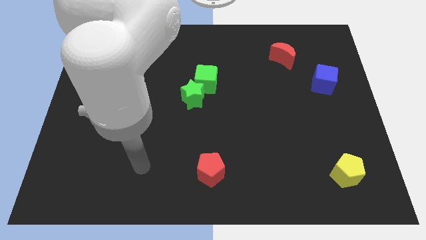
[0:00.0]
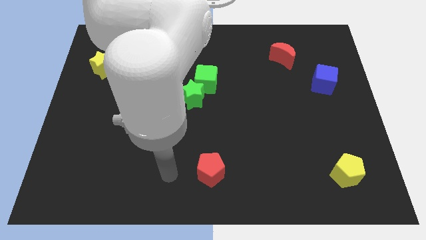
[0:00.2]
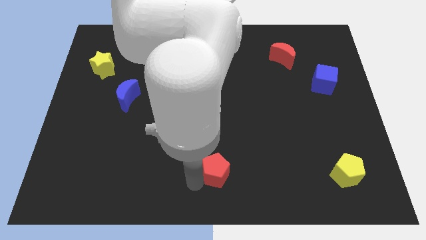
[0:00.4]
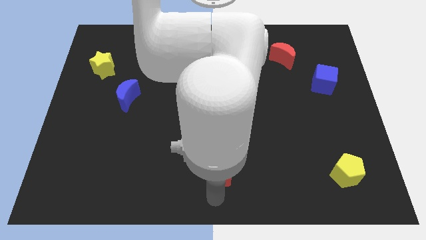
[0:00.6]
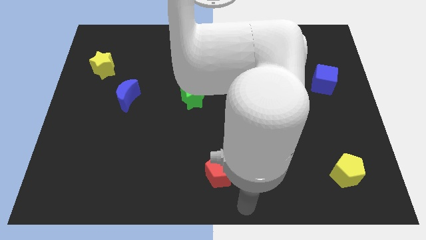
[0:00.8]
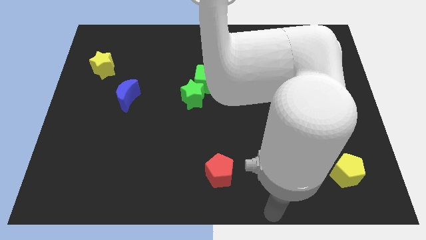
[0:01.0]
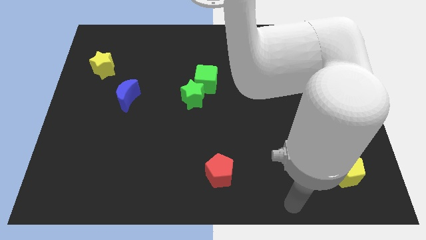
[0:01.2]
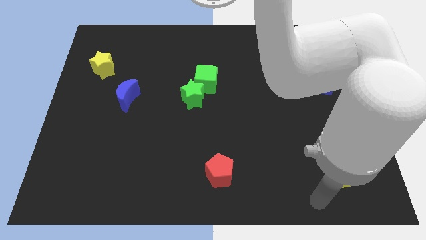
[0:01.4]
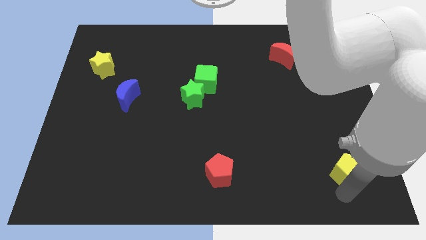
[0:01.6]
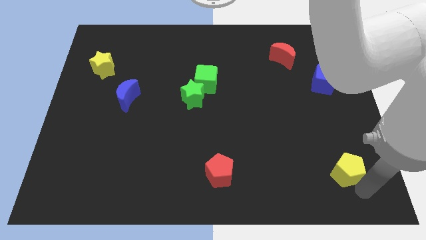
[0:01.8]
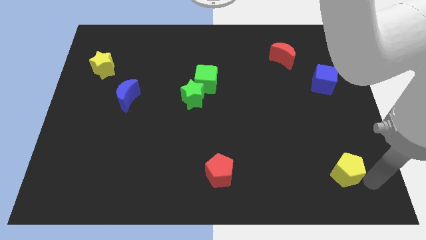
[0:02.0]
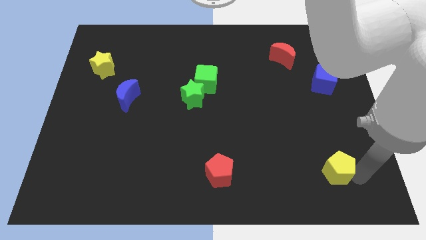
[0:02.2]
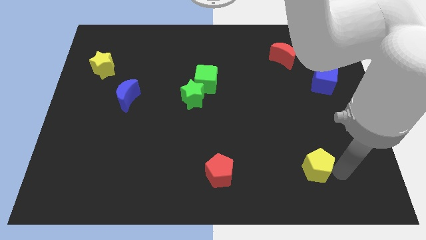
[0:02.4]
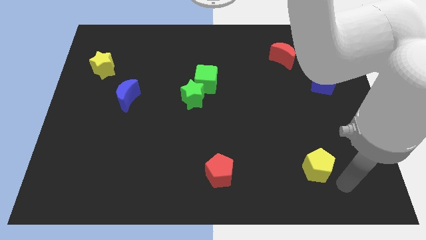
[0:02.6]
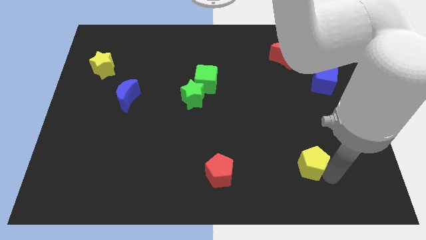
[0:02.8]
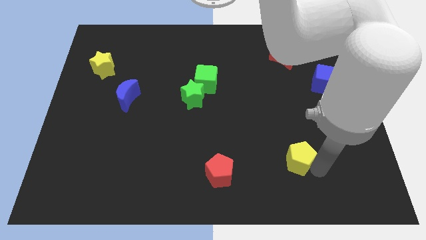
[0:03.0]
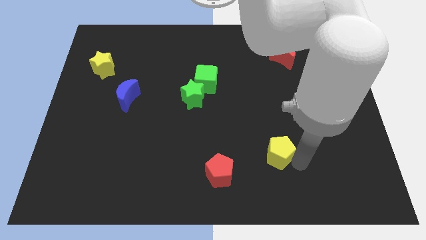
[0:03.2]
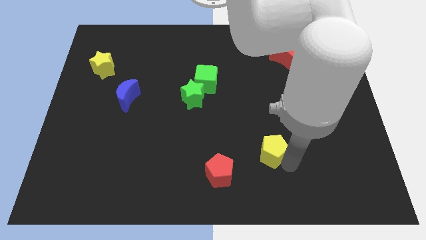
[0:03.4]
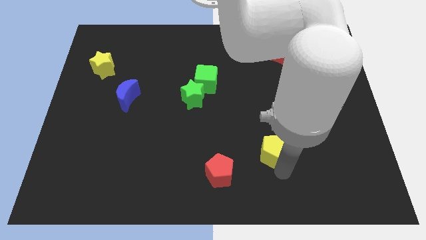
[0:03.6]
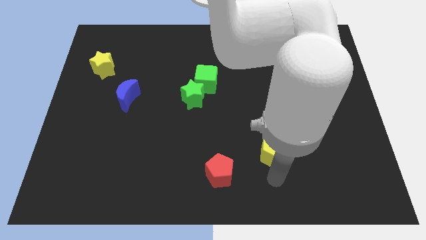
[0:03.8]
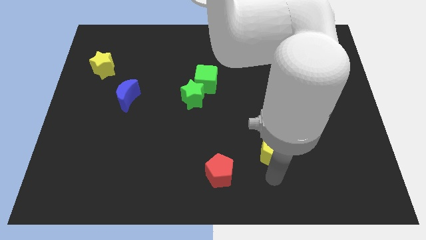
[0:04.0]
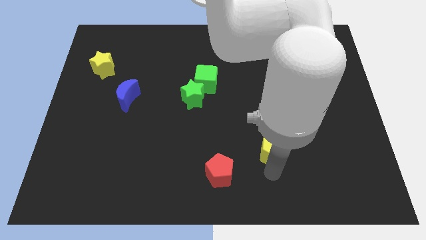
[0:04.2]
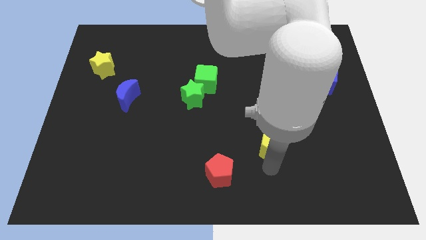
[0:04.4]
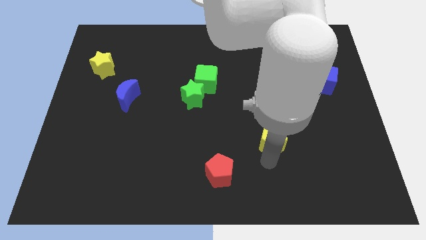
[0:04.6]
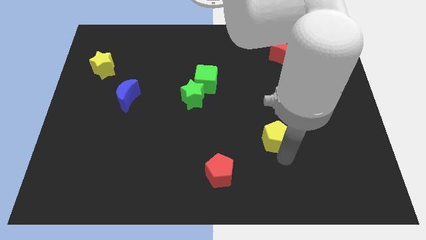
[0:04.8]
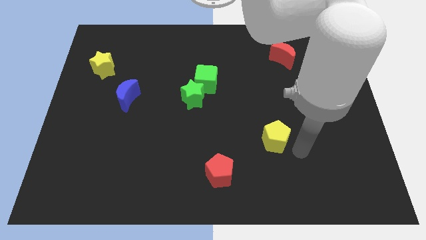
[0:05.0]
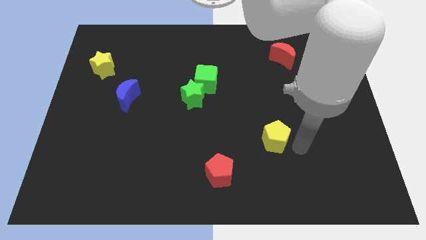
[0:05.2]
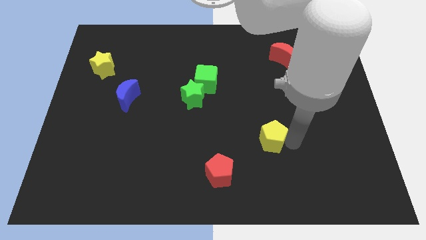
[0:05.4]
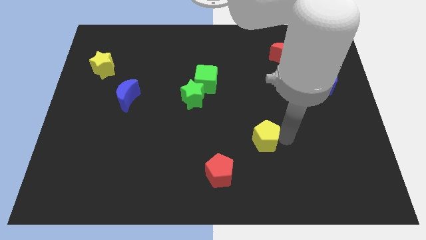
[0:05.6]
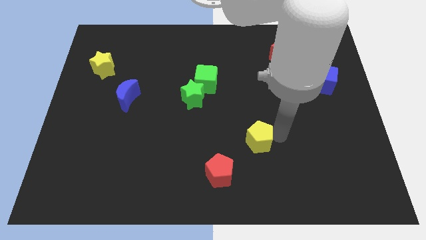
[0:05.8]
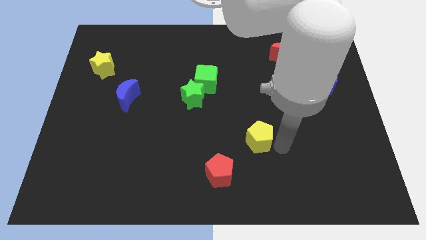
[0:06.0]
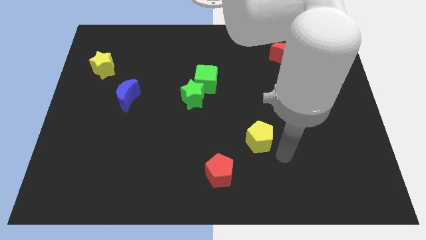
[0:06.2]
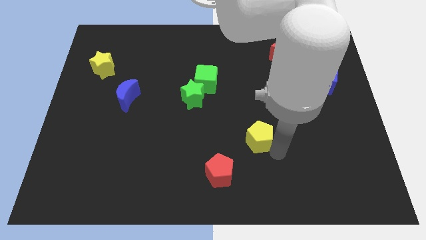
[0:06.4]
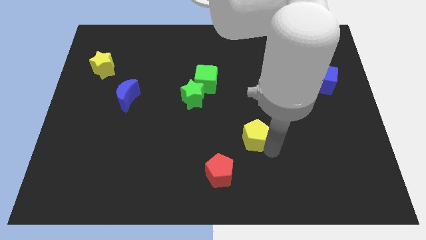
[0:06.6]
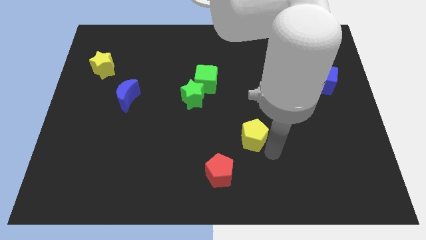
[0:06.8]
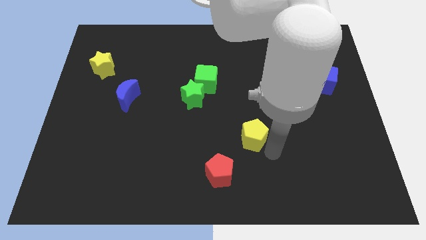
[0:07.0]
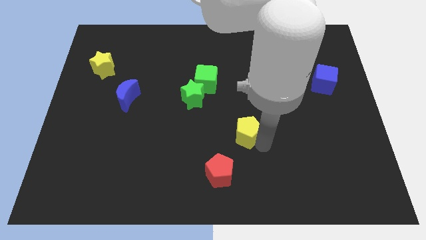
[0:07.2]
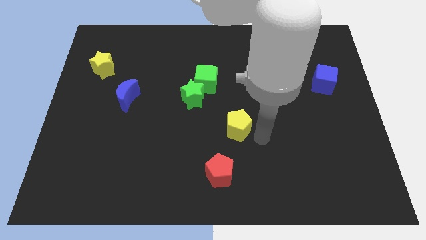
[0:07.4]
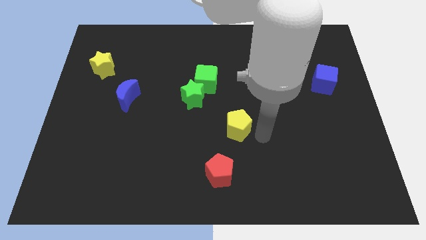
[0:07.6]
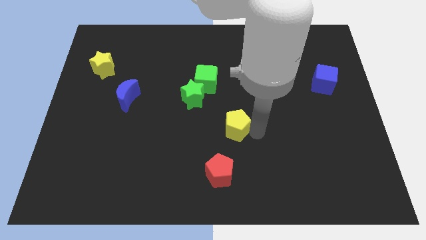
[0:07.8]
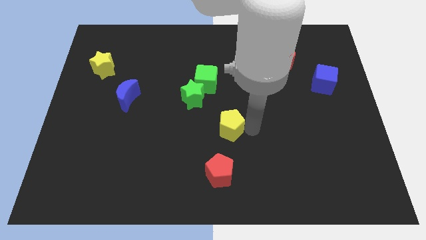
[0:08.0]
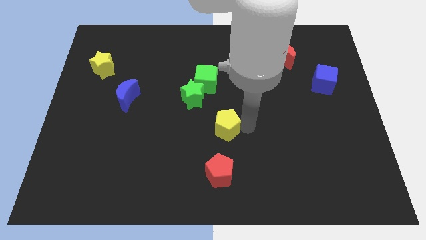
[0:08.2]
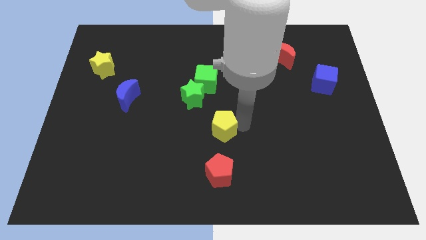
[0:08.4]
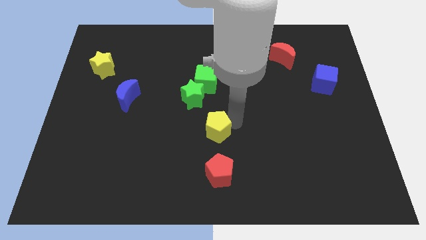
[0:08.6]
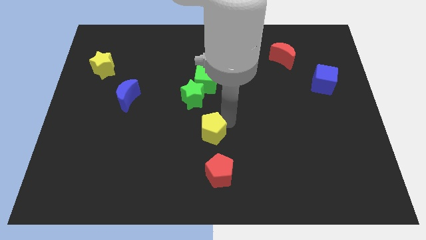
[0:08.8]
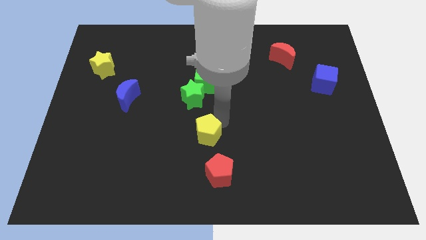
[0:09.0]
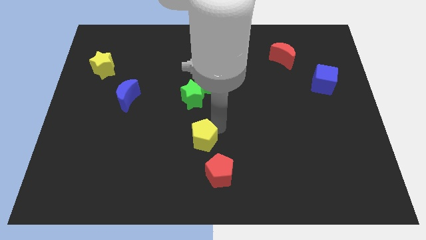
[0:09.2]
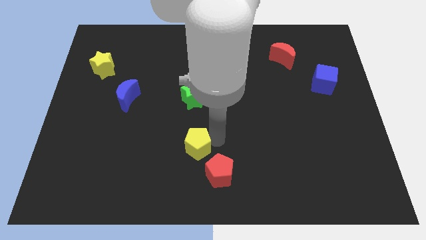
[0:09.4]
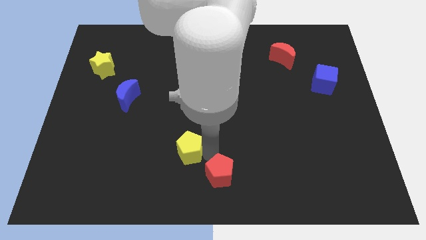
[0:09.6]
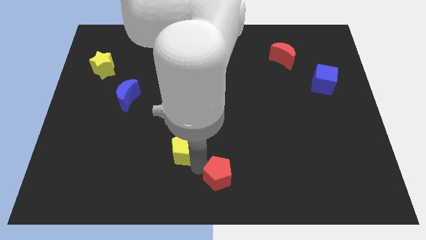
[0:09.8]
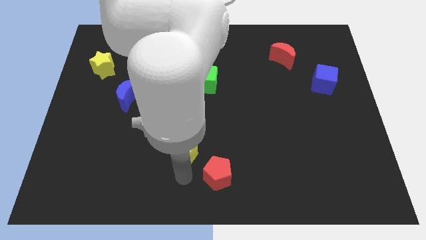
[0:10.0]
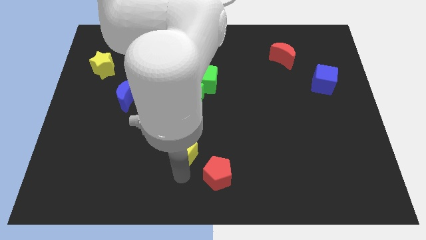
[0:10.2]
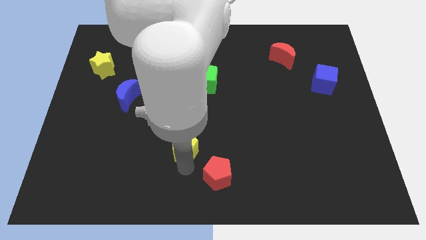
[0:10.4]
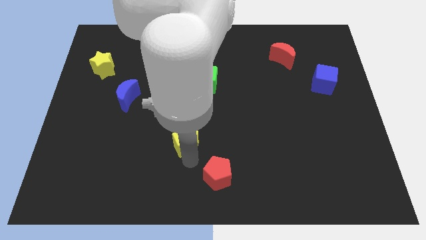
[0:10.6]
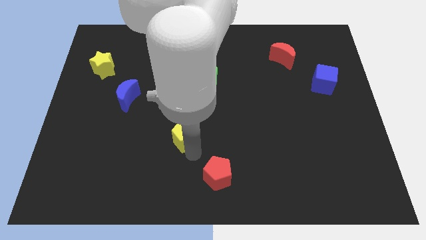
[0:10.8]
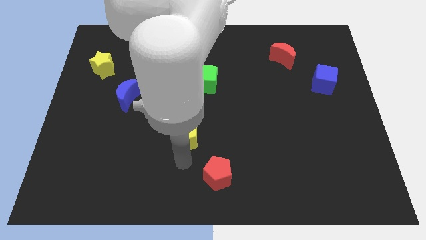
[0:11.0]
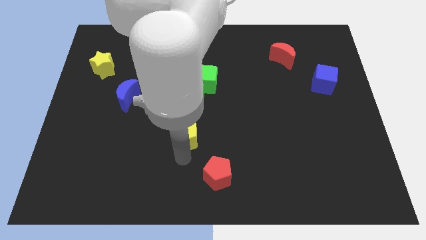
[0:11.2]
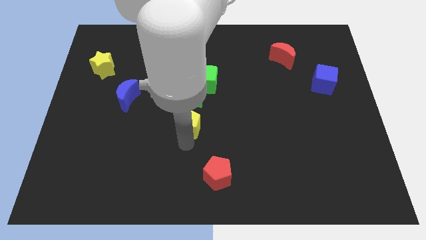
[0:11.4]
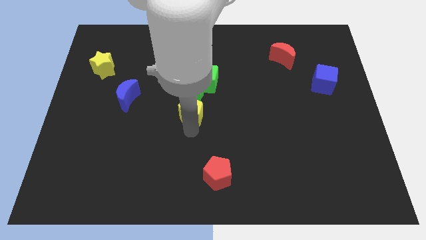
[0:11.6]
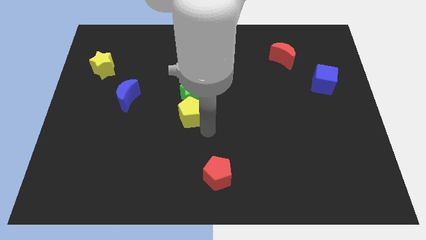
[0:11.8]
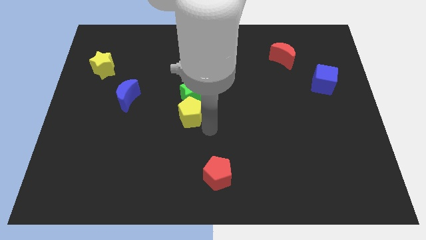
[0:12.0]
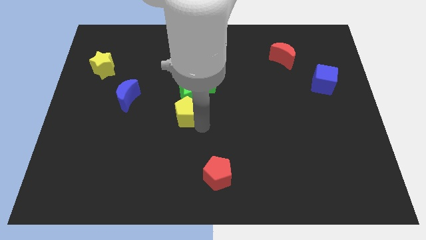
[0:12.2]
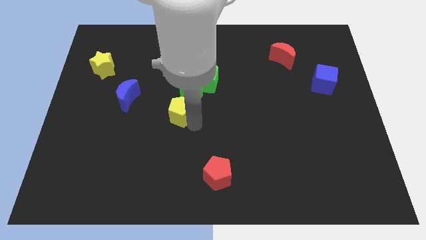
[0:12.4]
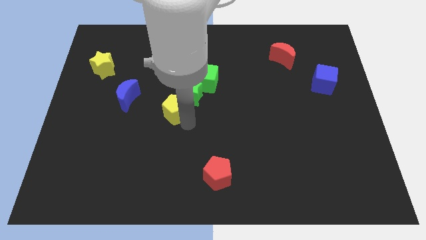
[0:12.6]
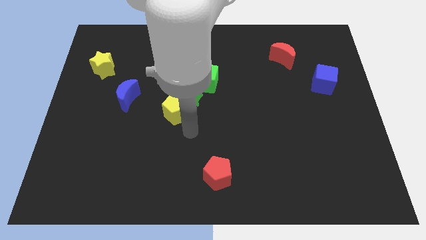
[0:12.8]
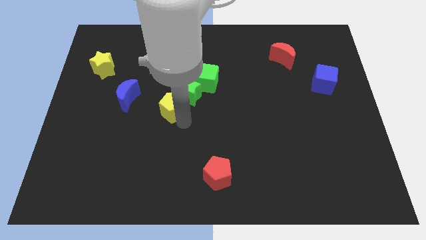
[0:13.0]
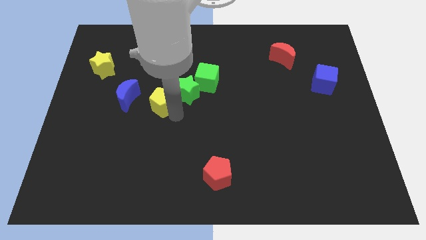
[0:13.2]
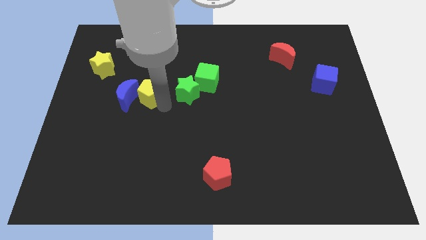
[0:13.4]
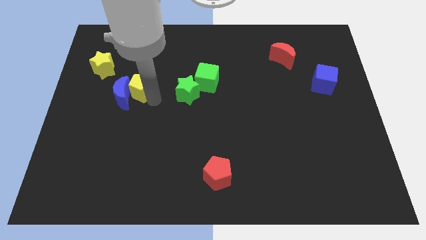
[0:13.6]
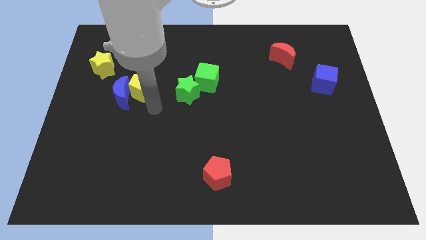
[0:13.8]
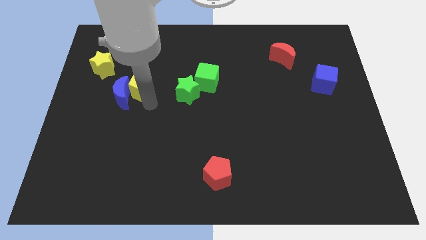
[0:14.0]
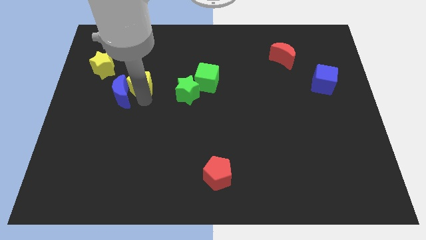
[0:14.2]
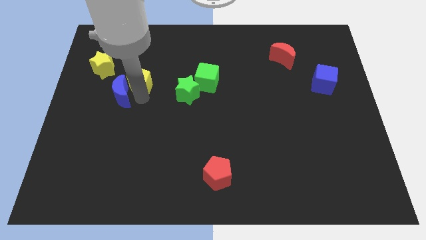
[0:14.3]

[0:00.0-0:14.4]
put the yellow pentagon to the top side of the blue moon
